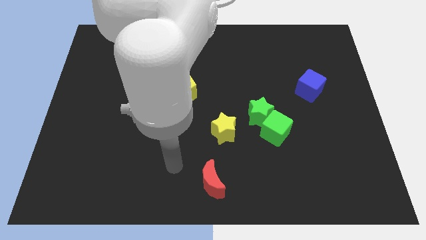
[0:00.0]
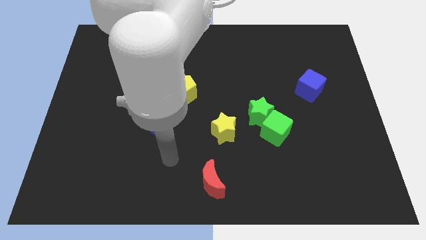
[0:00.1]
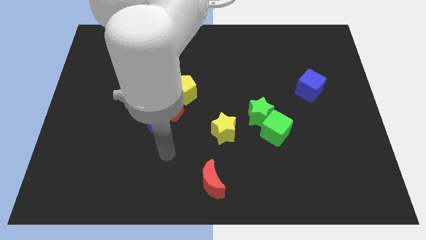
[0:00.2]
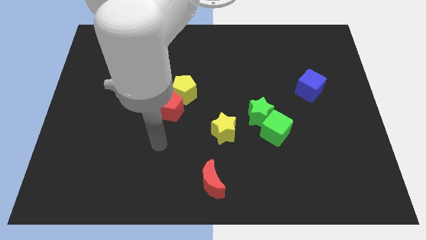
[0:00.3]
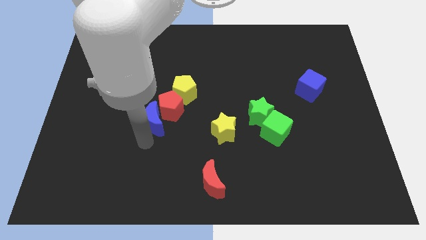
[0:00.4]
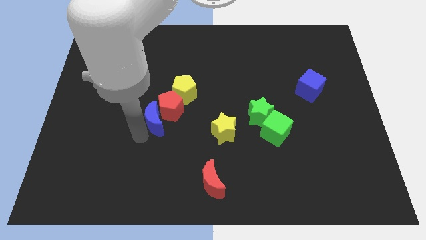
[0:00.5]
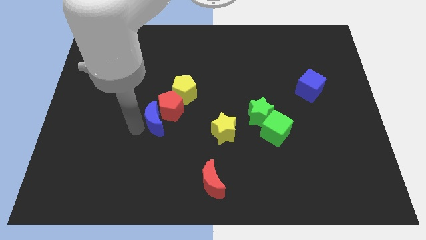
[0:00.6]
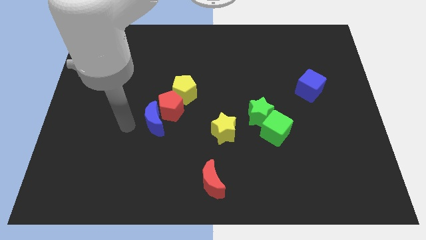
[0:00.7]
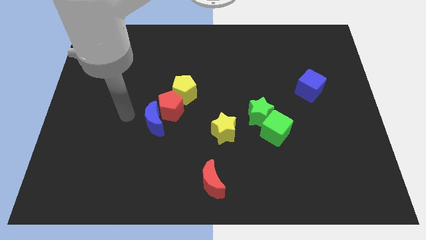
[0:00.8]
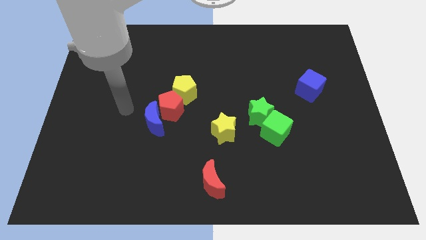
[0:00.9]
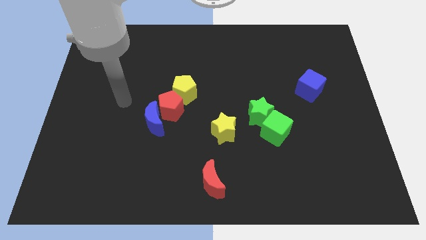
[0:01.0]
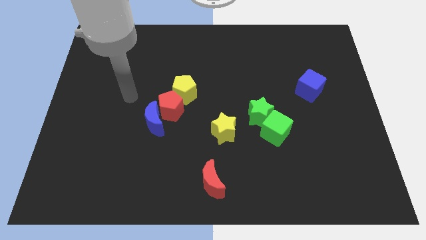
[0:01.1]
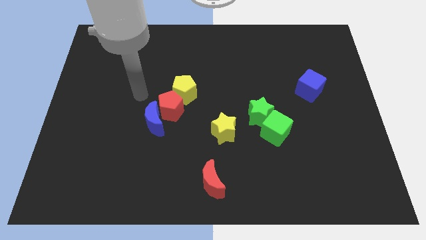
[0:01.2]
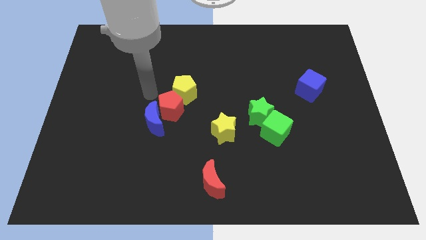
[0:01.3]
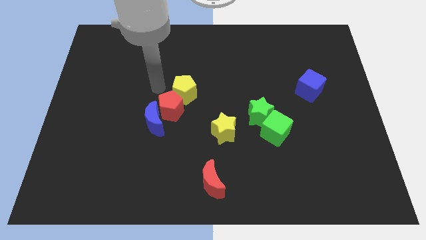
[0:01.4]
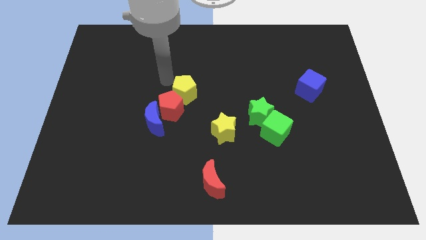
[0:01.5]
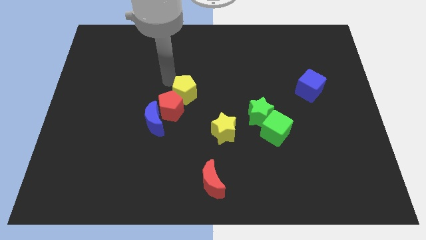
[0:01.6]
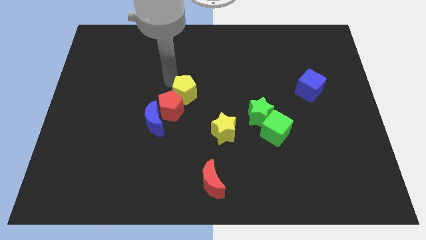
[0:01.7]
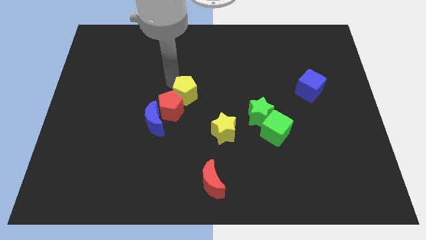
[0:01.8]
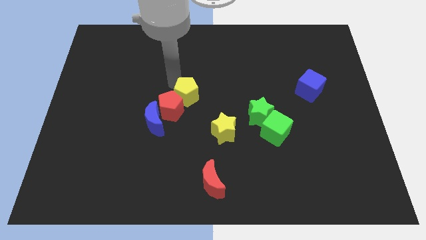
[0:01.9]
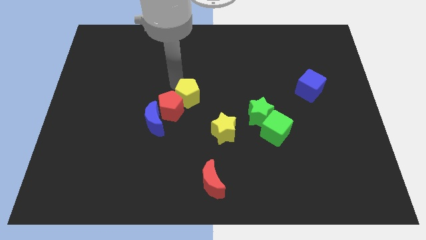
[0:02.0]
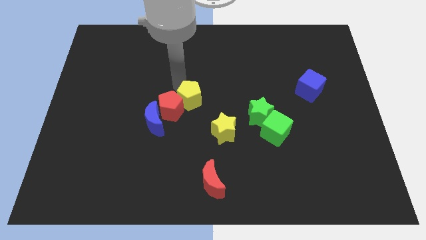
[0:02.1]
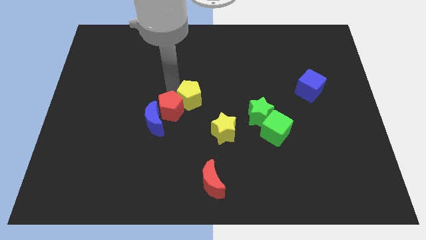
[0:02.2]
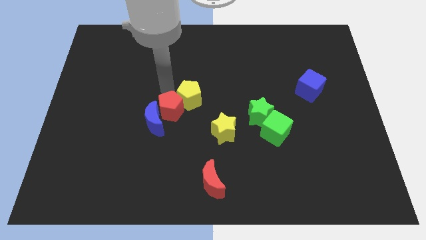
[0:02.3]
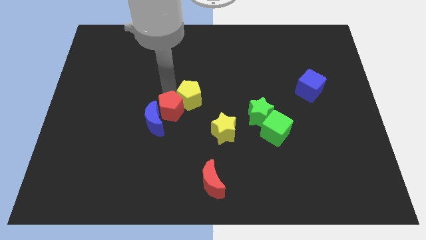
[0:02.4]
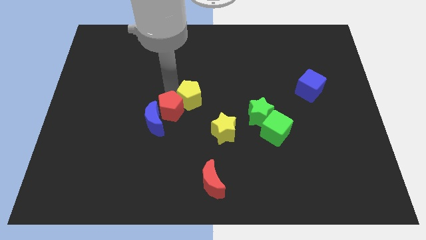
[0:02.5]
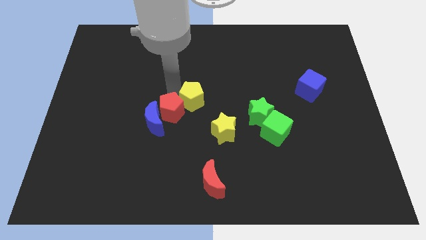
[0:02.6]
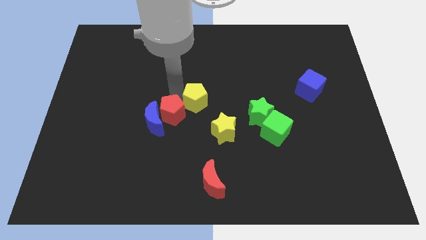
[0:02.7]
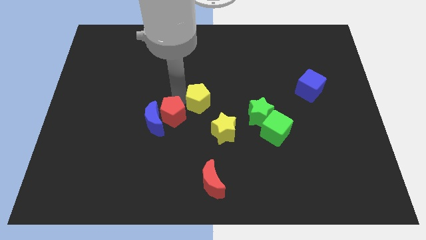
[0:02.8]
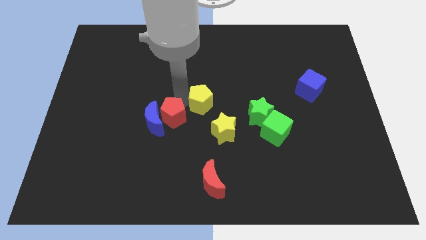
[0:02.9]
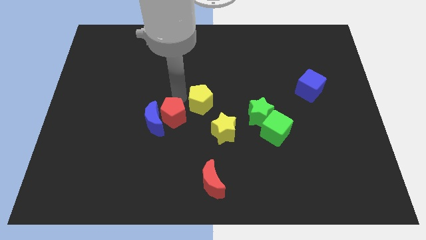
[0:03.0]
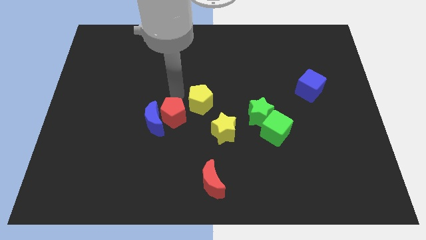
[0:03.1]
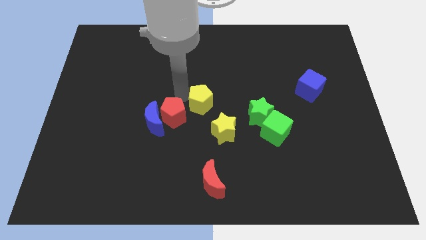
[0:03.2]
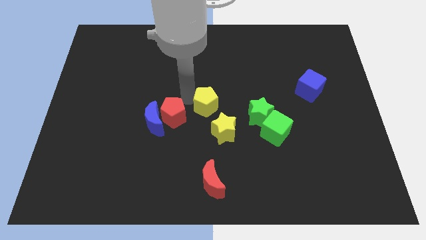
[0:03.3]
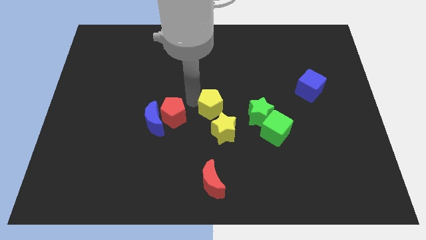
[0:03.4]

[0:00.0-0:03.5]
push the yellow pentagon down and then right a little bit

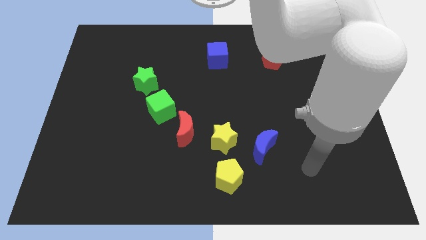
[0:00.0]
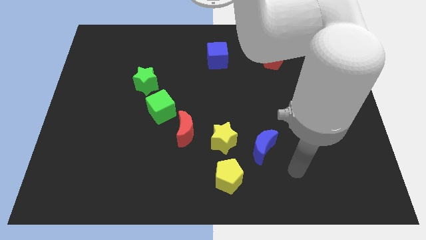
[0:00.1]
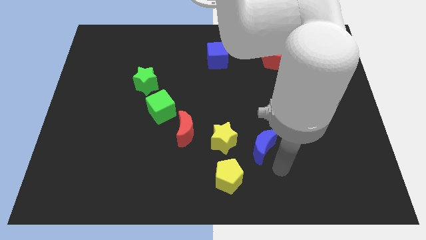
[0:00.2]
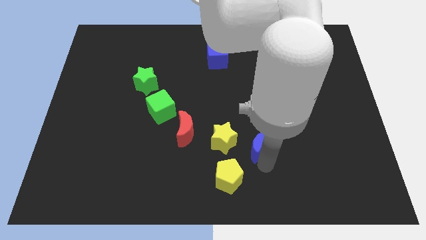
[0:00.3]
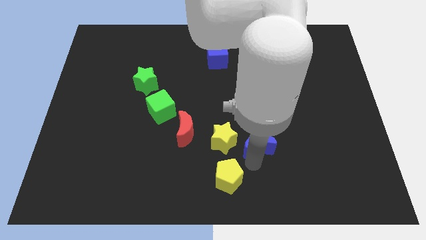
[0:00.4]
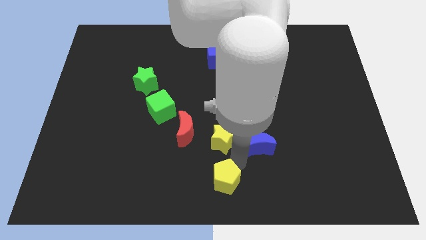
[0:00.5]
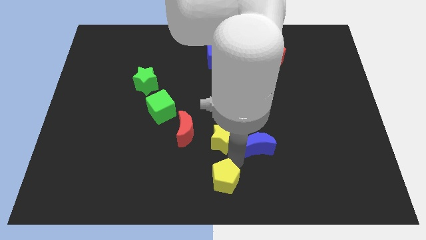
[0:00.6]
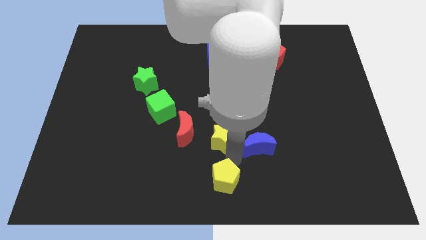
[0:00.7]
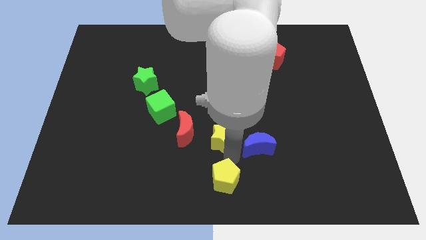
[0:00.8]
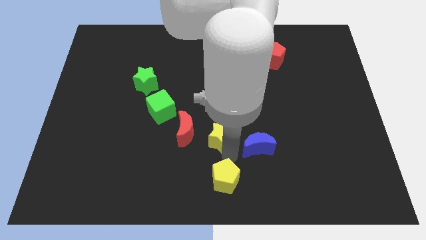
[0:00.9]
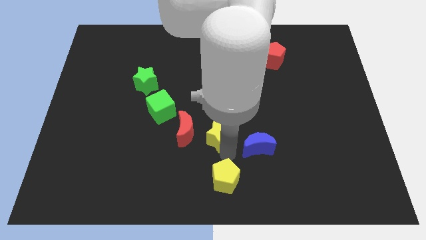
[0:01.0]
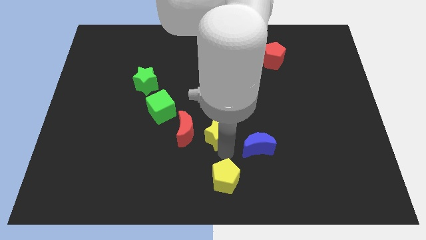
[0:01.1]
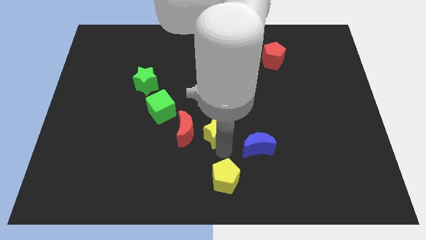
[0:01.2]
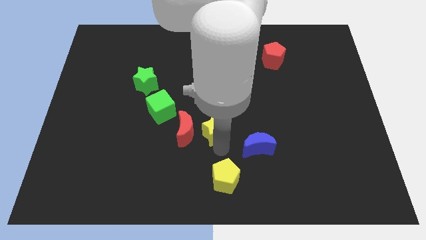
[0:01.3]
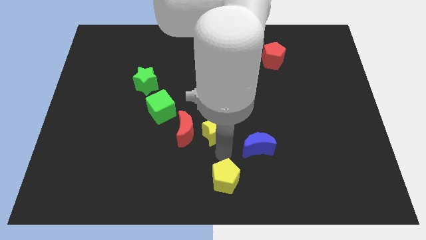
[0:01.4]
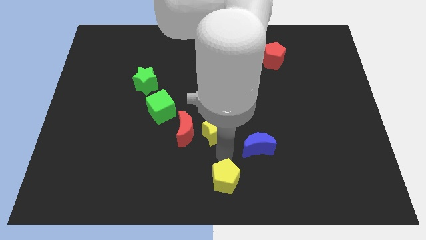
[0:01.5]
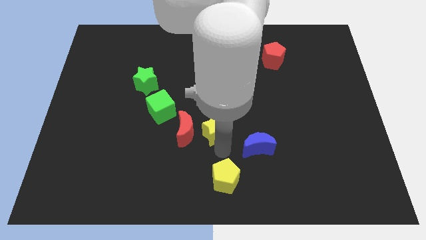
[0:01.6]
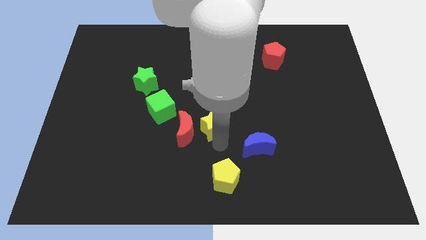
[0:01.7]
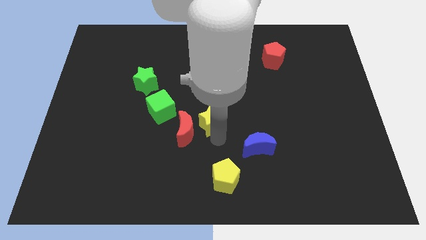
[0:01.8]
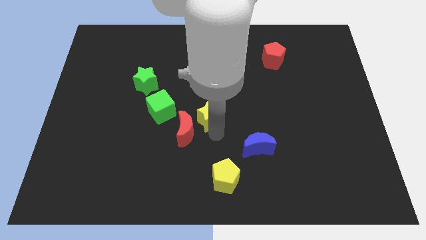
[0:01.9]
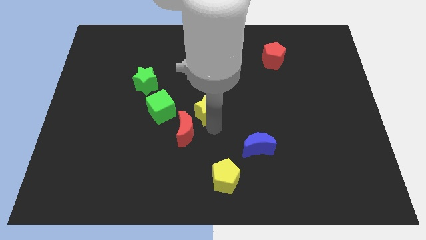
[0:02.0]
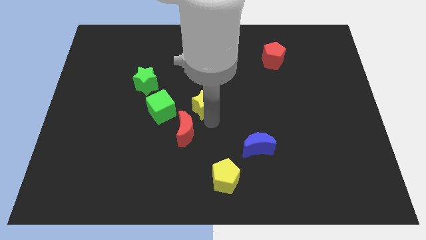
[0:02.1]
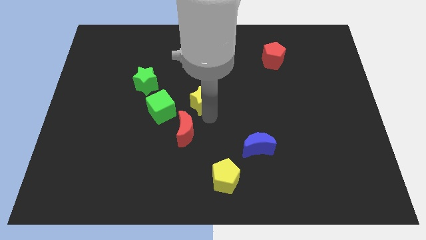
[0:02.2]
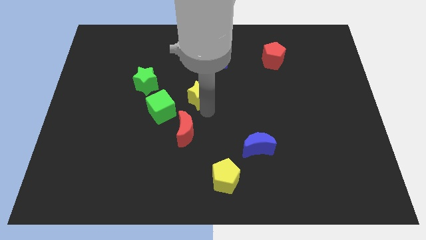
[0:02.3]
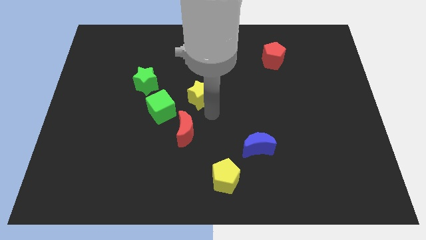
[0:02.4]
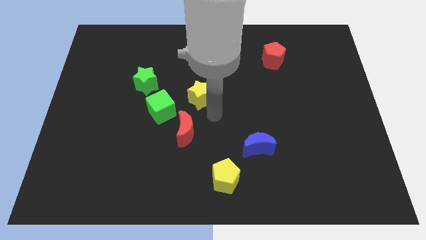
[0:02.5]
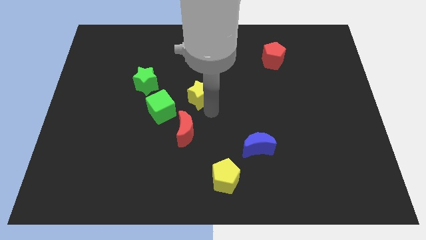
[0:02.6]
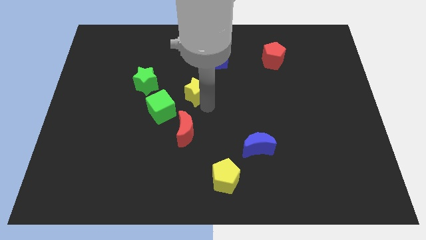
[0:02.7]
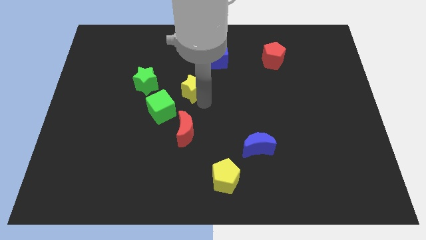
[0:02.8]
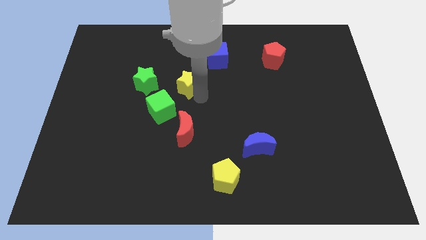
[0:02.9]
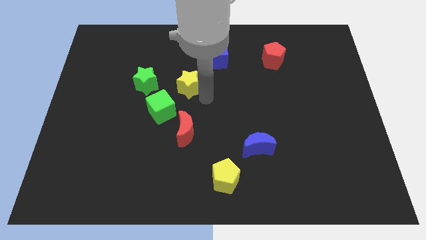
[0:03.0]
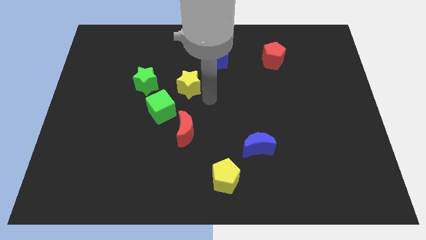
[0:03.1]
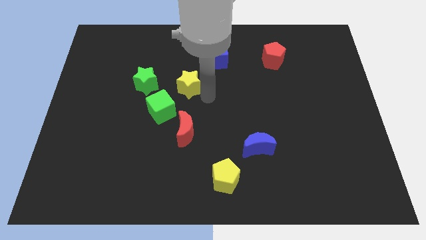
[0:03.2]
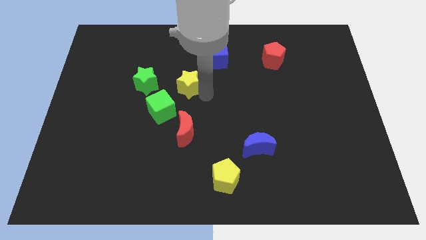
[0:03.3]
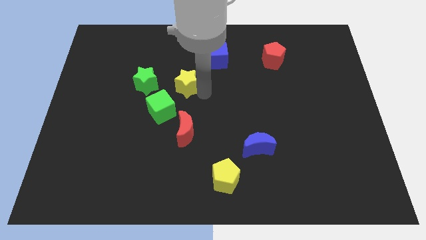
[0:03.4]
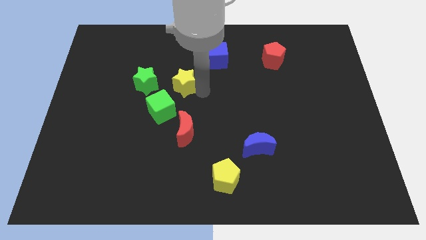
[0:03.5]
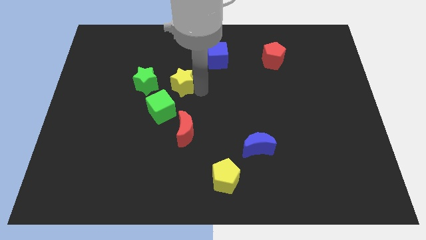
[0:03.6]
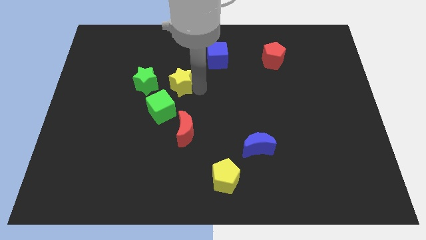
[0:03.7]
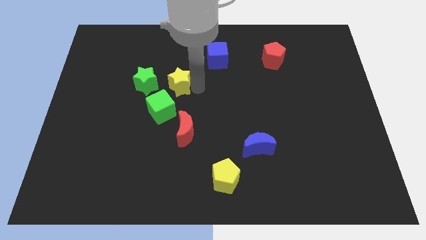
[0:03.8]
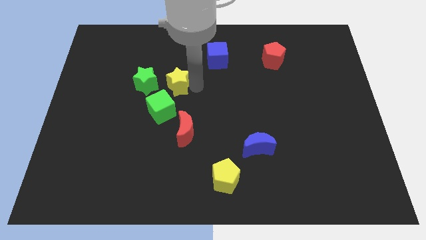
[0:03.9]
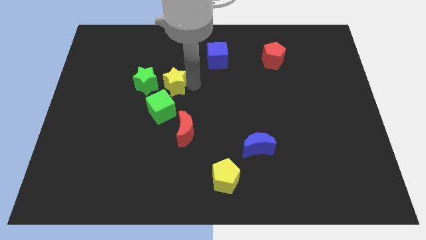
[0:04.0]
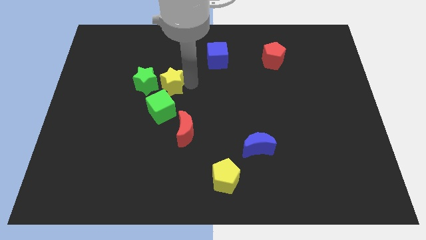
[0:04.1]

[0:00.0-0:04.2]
push the yellow star upwards and left diagonally
